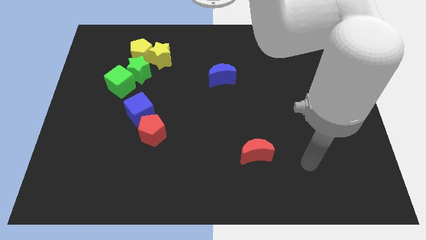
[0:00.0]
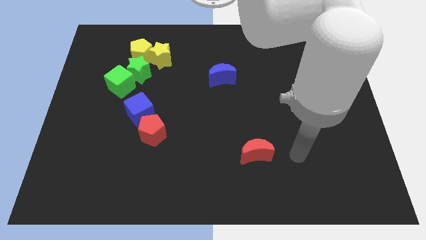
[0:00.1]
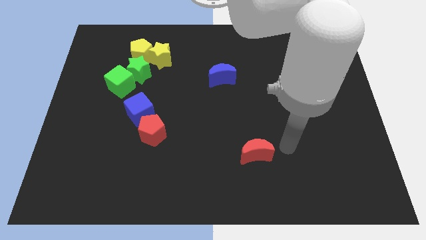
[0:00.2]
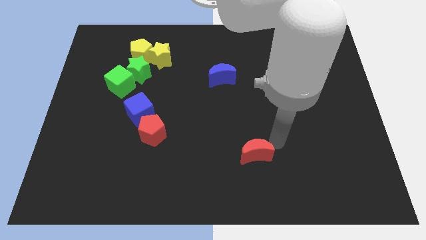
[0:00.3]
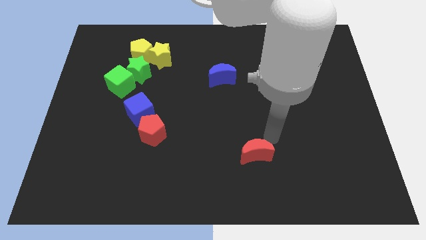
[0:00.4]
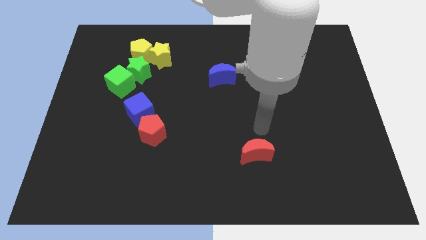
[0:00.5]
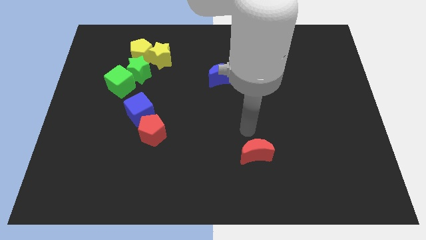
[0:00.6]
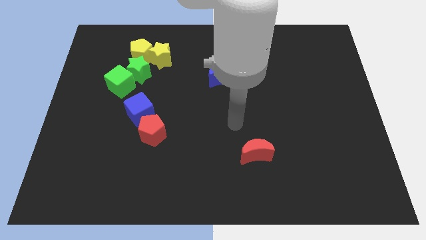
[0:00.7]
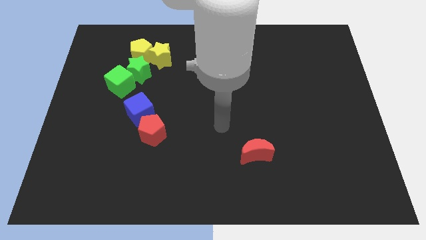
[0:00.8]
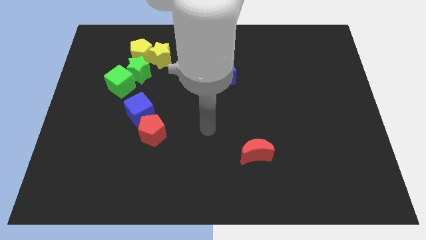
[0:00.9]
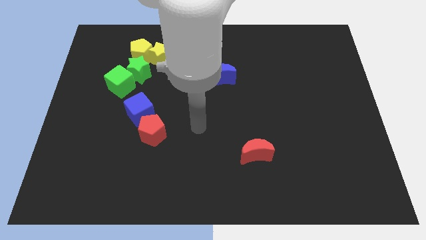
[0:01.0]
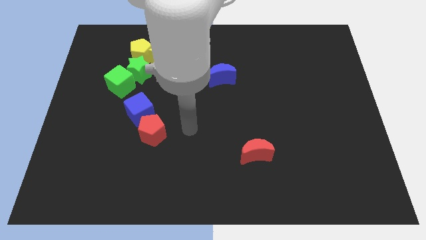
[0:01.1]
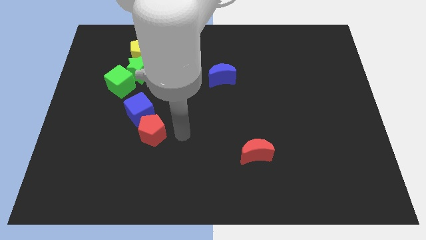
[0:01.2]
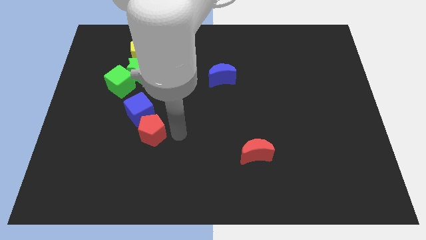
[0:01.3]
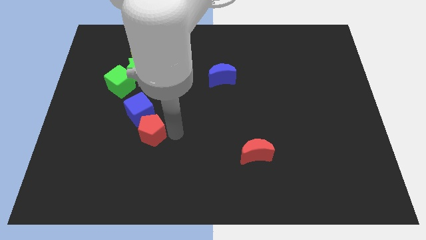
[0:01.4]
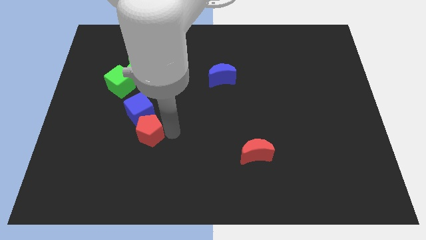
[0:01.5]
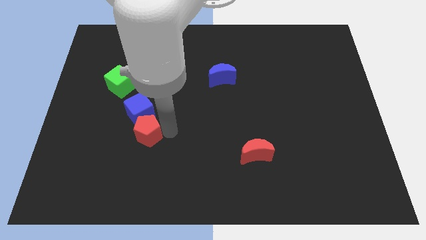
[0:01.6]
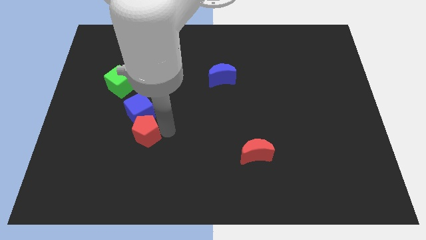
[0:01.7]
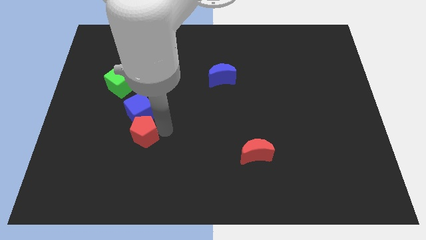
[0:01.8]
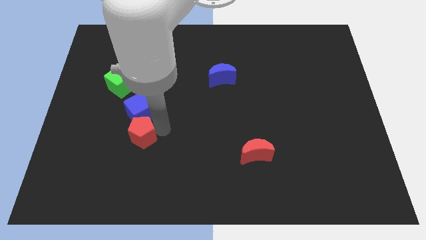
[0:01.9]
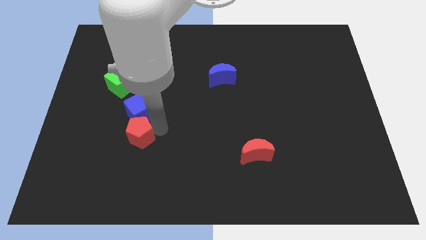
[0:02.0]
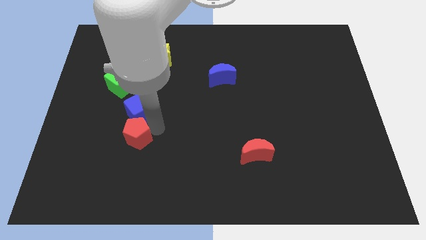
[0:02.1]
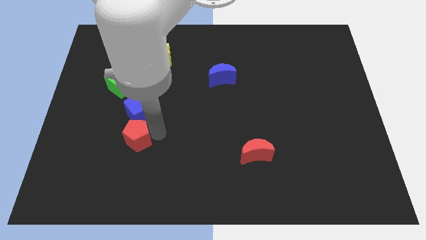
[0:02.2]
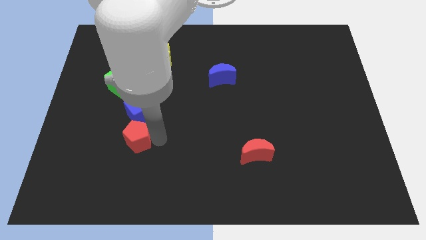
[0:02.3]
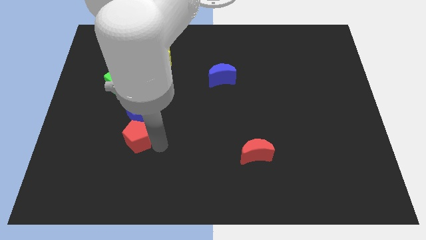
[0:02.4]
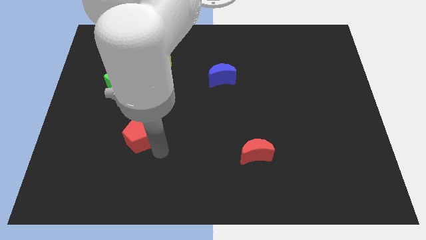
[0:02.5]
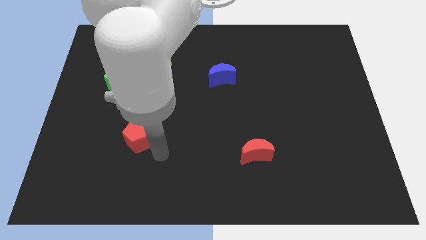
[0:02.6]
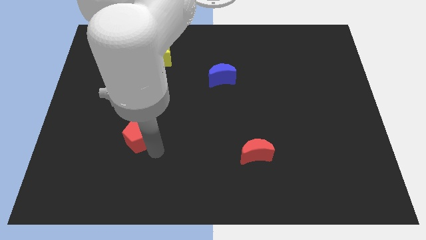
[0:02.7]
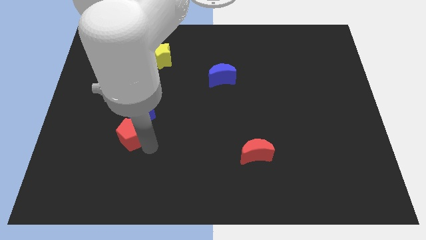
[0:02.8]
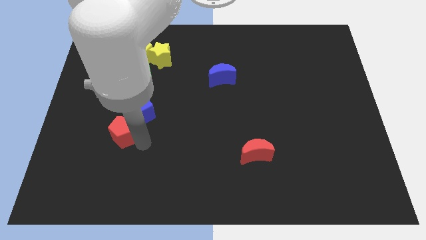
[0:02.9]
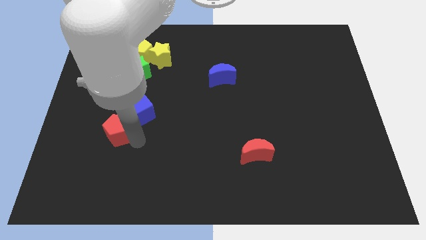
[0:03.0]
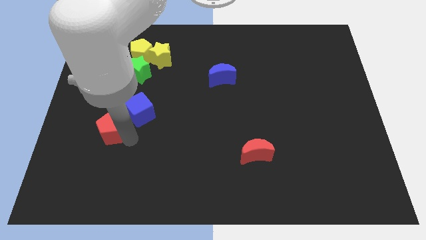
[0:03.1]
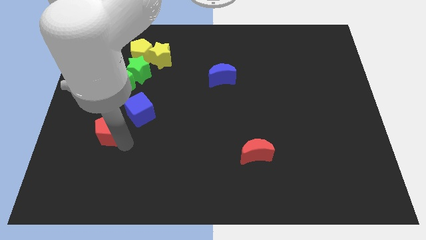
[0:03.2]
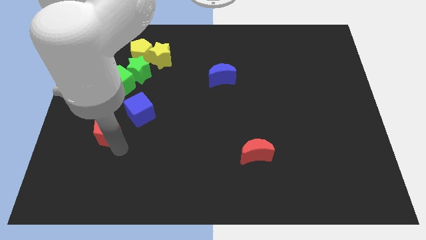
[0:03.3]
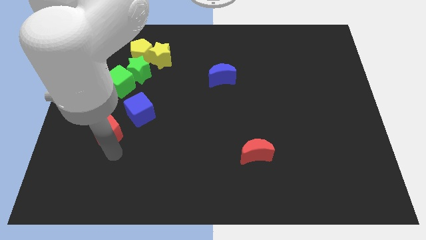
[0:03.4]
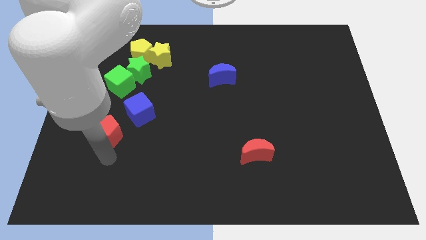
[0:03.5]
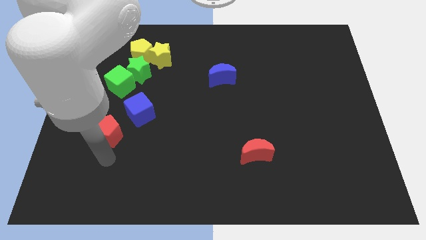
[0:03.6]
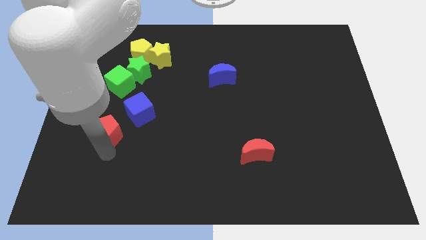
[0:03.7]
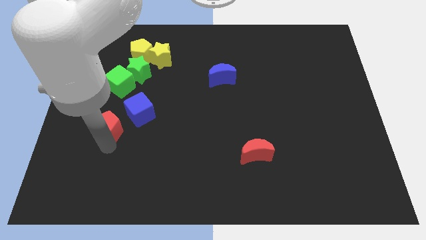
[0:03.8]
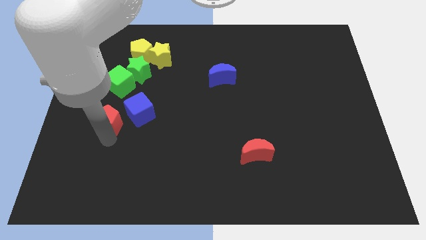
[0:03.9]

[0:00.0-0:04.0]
slide the red pentagon upwards and then to the left a little

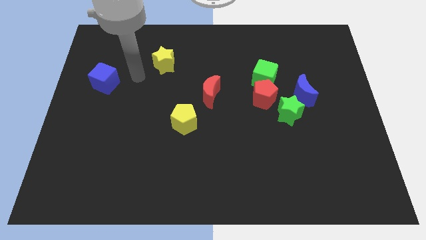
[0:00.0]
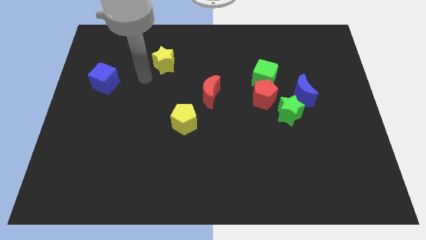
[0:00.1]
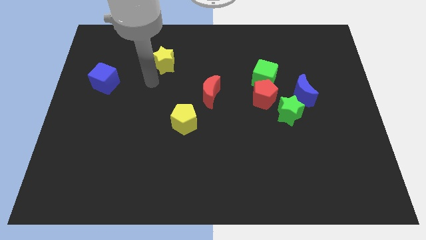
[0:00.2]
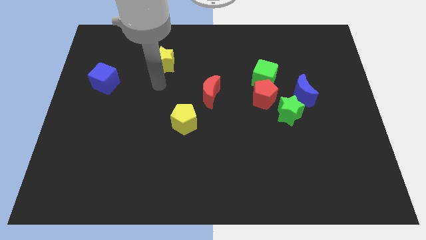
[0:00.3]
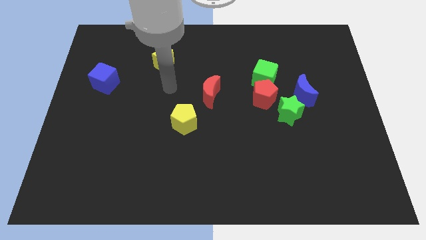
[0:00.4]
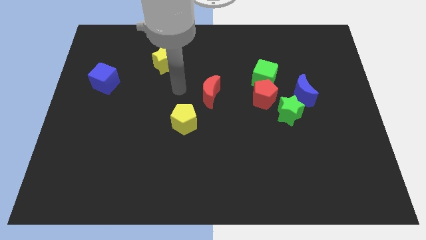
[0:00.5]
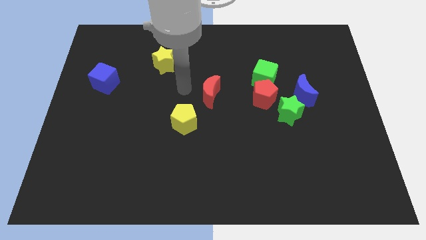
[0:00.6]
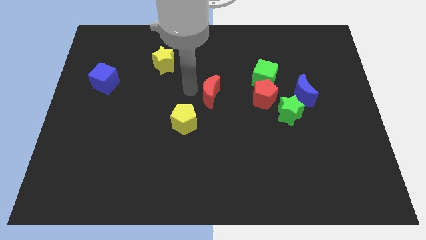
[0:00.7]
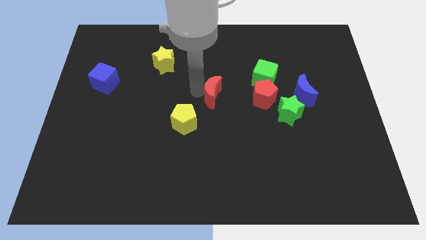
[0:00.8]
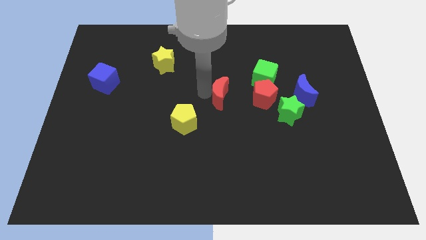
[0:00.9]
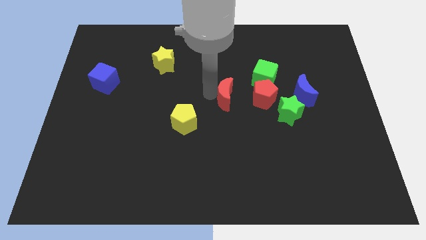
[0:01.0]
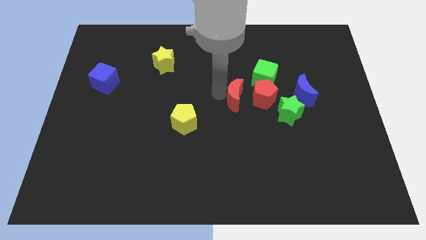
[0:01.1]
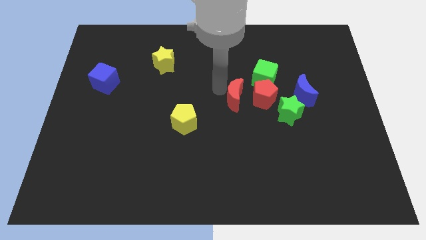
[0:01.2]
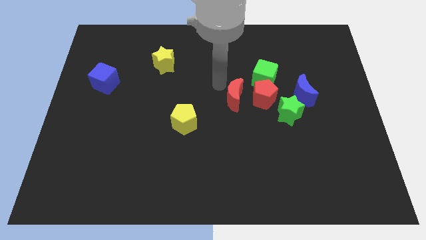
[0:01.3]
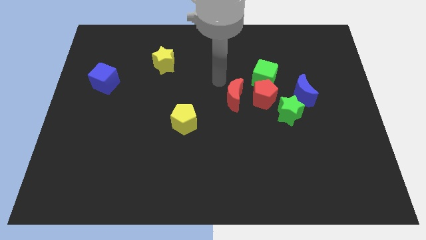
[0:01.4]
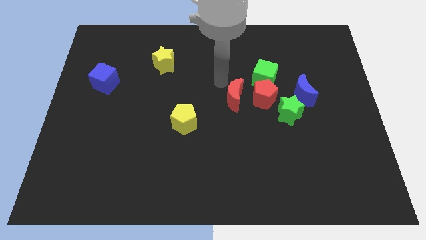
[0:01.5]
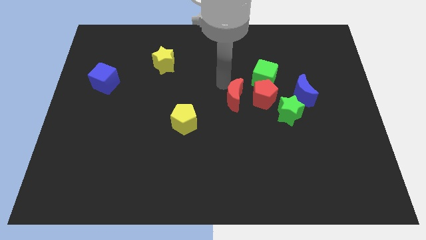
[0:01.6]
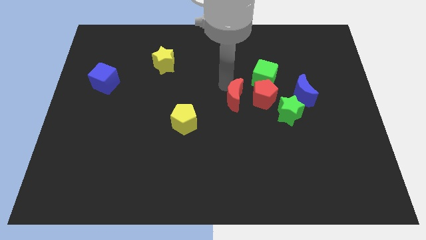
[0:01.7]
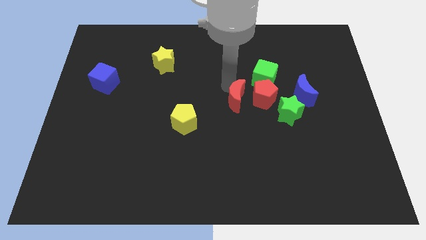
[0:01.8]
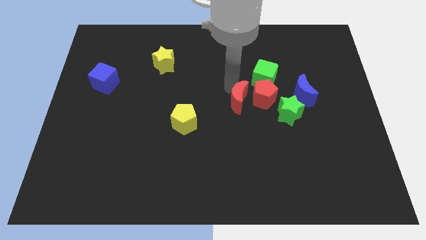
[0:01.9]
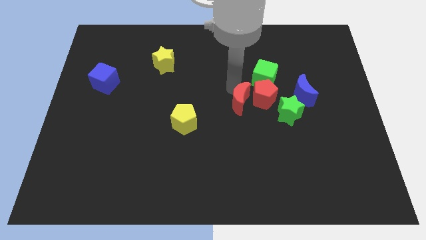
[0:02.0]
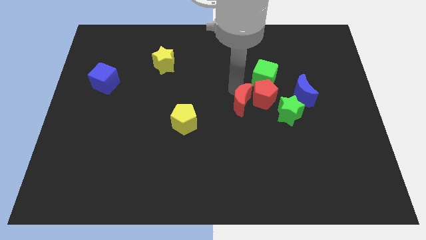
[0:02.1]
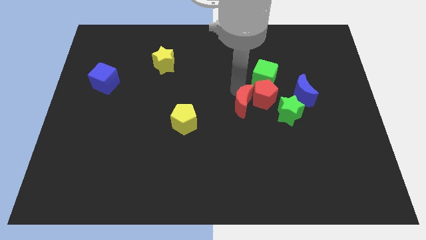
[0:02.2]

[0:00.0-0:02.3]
slide the red moon a bit down and to the right diagonally

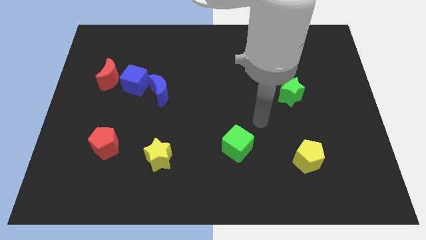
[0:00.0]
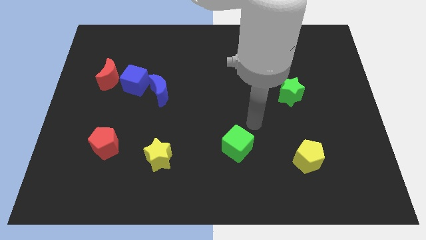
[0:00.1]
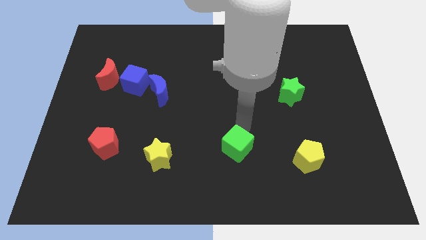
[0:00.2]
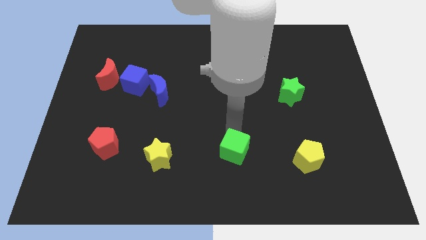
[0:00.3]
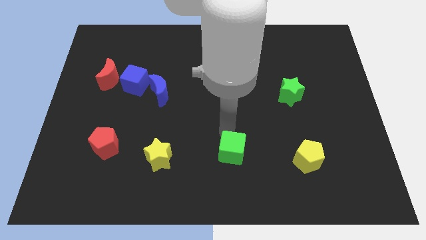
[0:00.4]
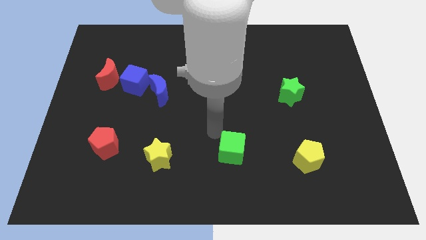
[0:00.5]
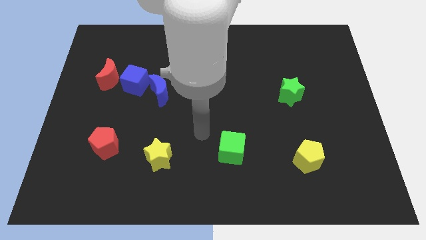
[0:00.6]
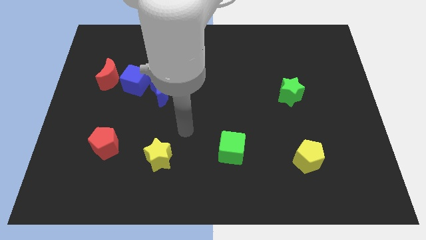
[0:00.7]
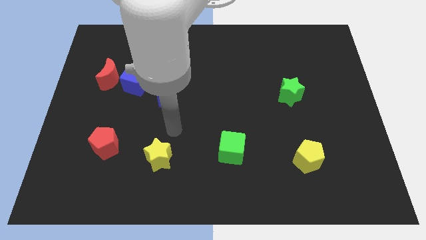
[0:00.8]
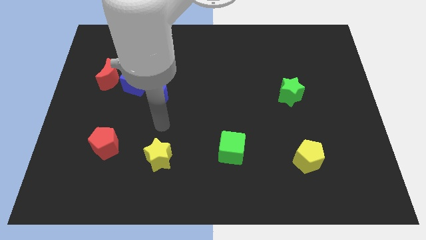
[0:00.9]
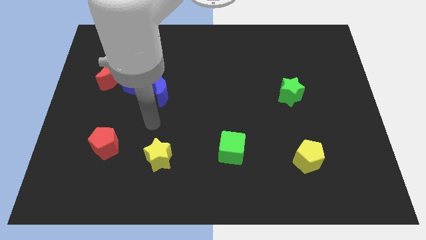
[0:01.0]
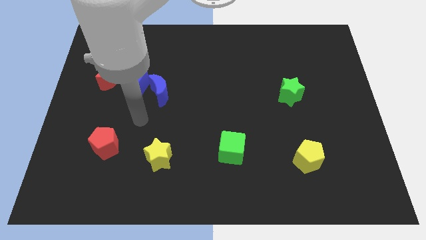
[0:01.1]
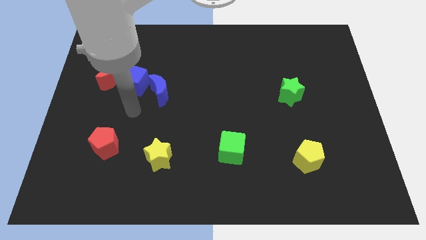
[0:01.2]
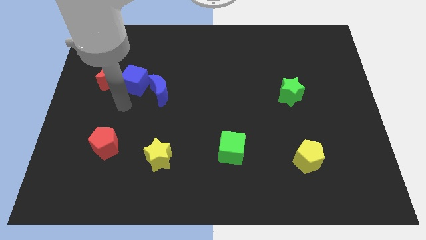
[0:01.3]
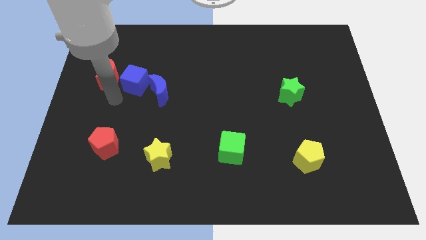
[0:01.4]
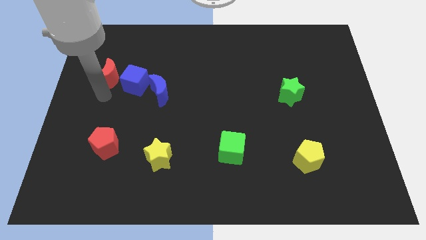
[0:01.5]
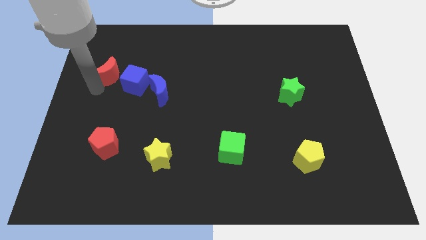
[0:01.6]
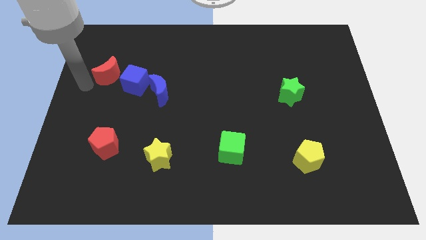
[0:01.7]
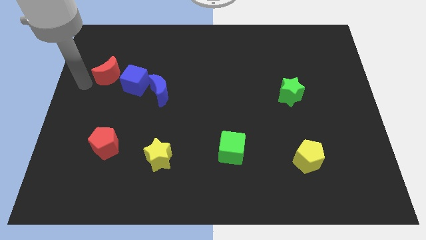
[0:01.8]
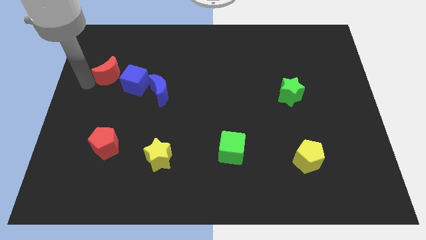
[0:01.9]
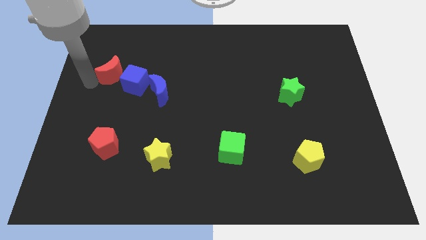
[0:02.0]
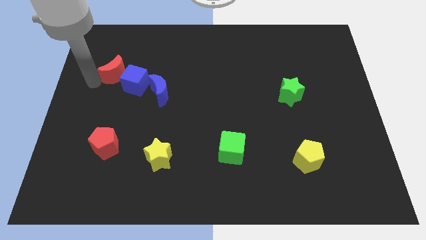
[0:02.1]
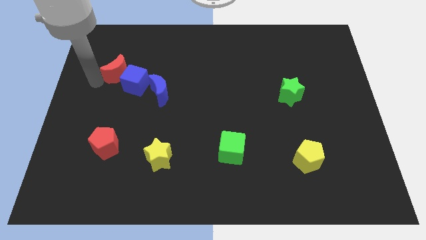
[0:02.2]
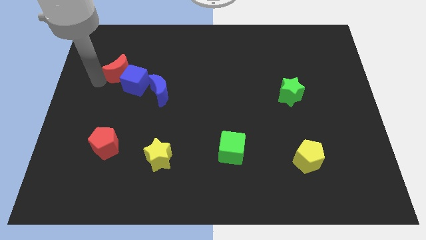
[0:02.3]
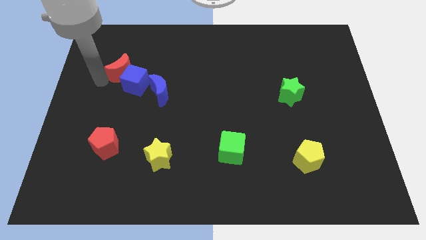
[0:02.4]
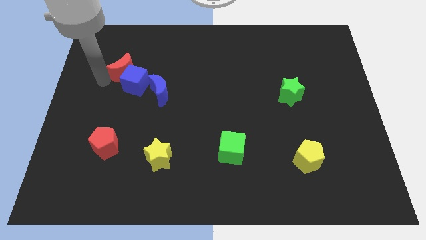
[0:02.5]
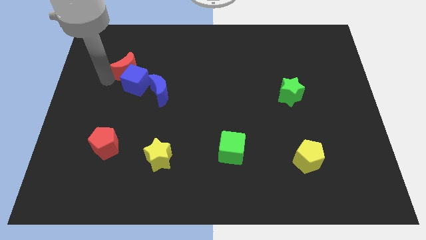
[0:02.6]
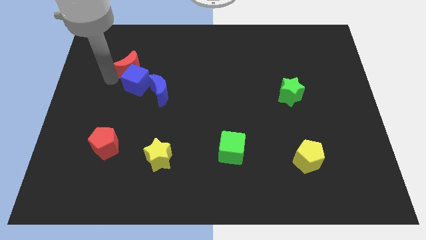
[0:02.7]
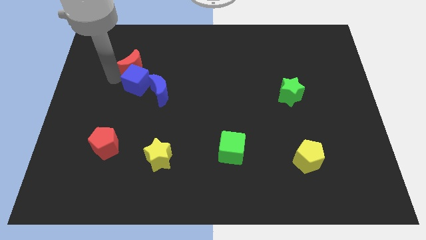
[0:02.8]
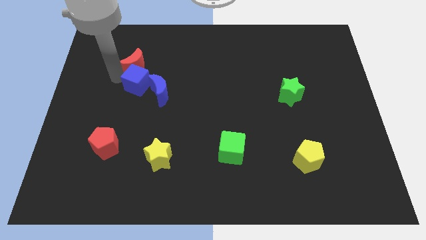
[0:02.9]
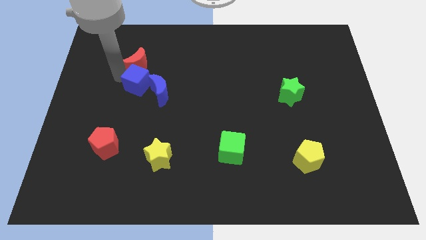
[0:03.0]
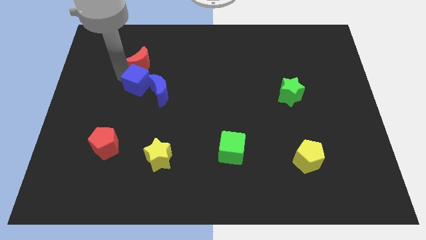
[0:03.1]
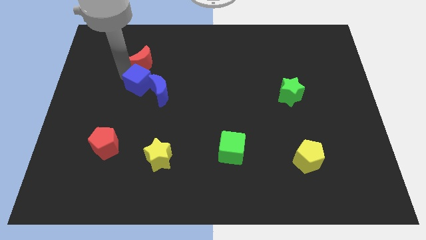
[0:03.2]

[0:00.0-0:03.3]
slightly push the red moon right
